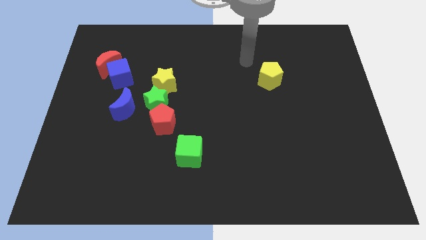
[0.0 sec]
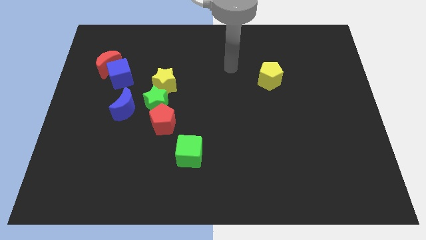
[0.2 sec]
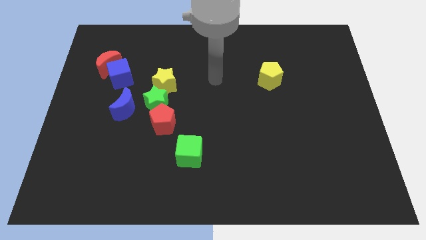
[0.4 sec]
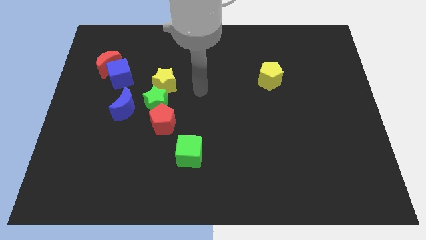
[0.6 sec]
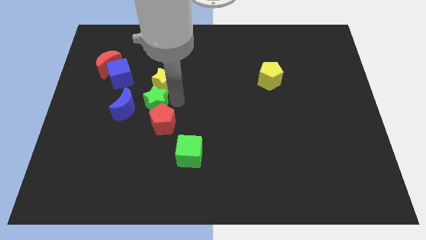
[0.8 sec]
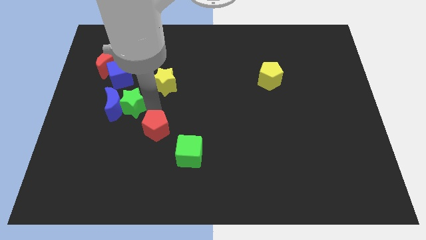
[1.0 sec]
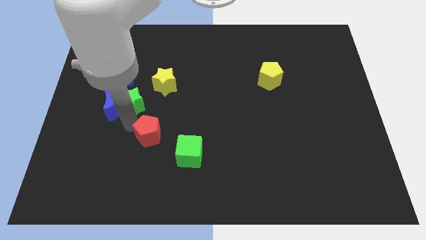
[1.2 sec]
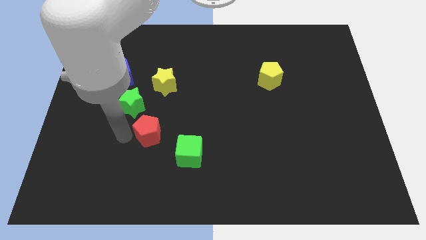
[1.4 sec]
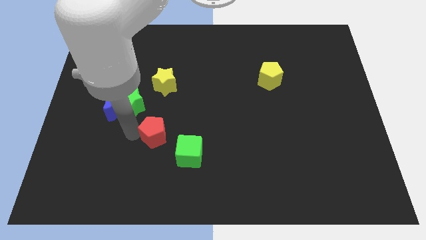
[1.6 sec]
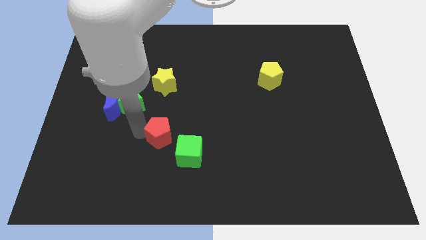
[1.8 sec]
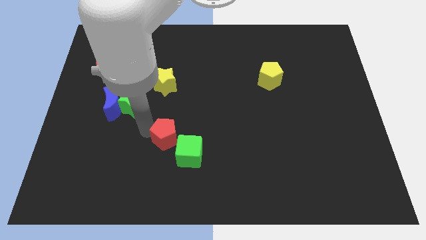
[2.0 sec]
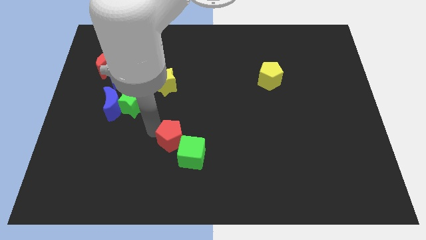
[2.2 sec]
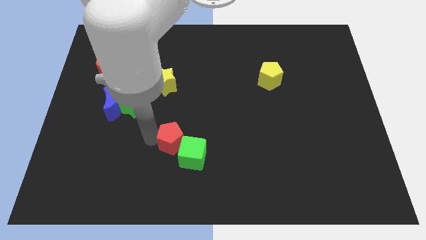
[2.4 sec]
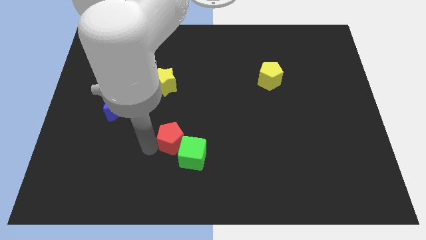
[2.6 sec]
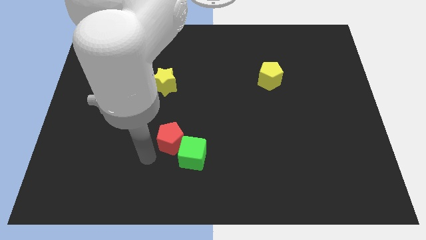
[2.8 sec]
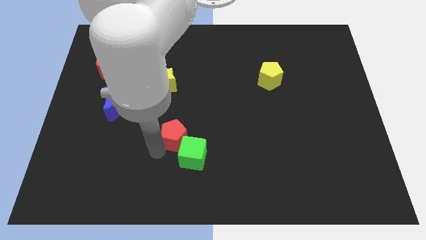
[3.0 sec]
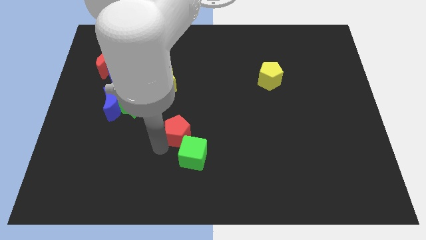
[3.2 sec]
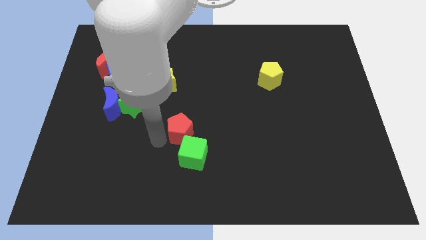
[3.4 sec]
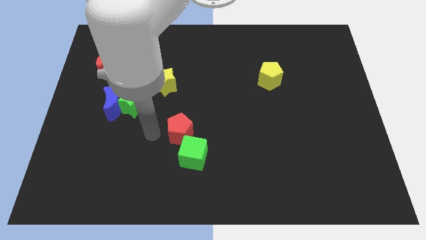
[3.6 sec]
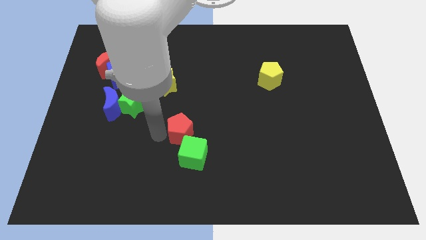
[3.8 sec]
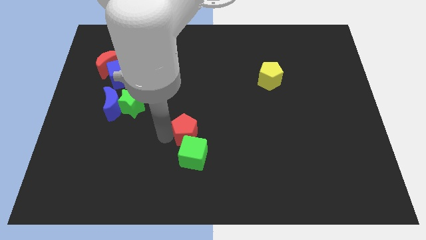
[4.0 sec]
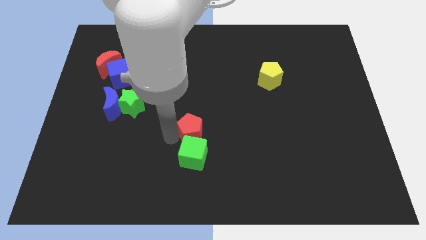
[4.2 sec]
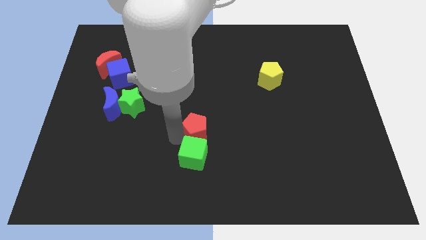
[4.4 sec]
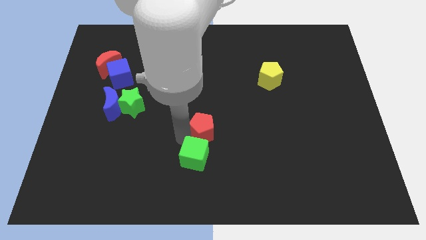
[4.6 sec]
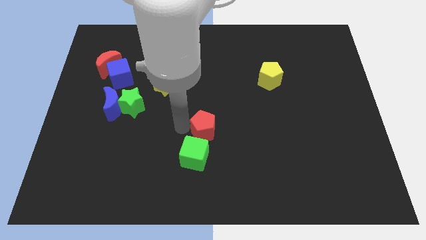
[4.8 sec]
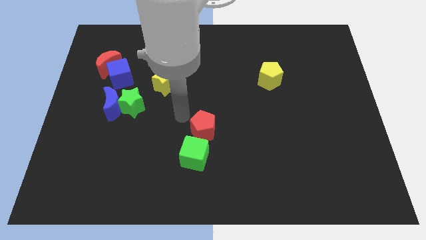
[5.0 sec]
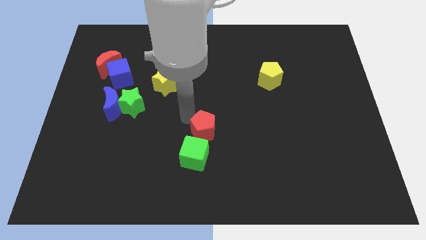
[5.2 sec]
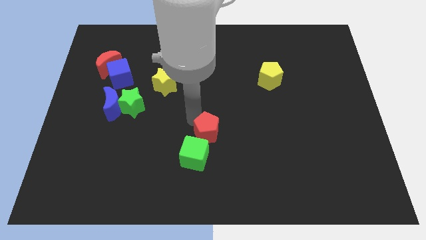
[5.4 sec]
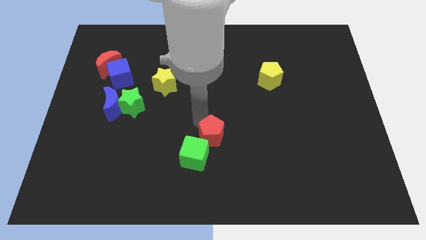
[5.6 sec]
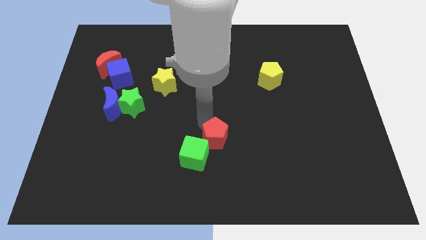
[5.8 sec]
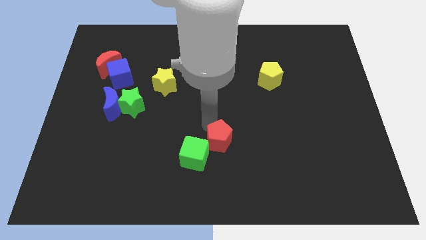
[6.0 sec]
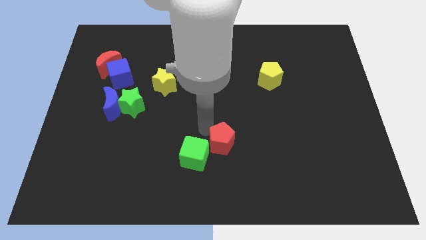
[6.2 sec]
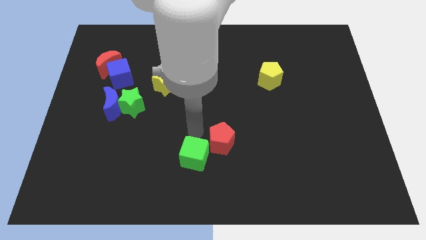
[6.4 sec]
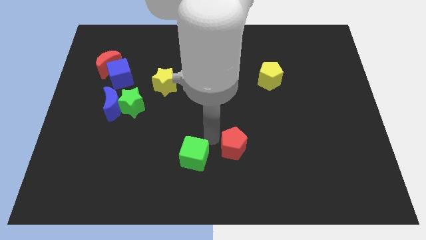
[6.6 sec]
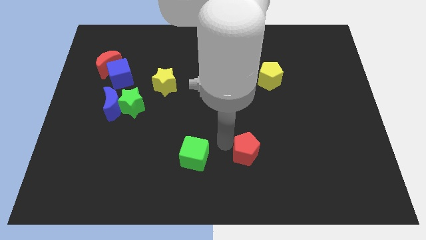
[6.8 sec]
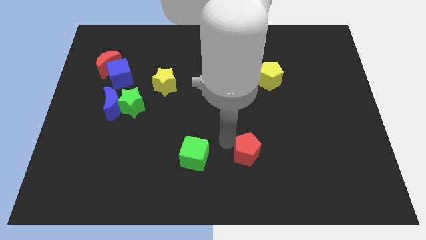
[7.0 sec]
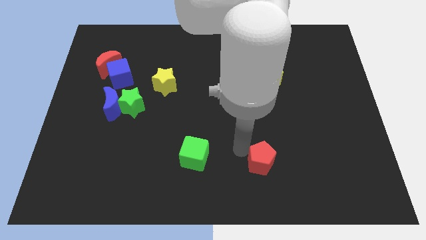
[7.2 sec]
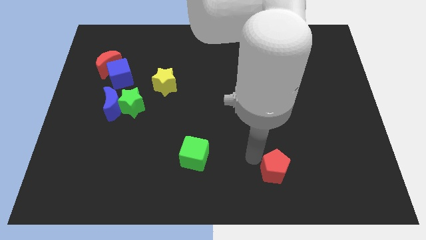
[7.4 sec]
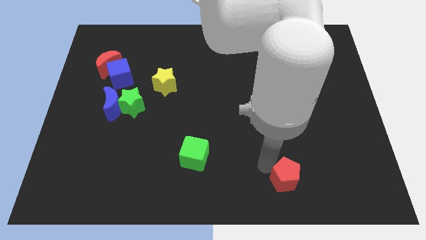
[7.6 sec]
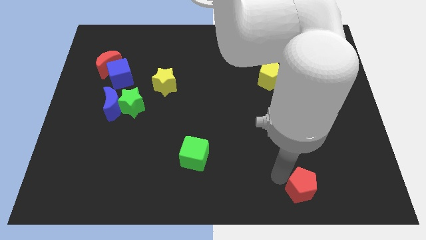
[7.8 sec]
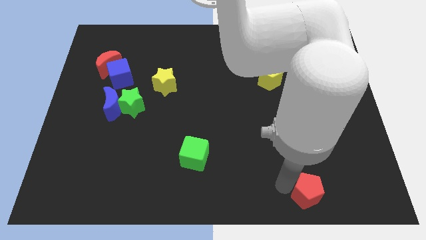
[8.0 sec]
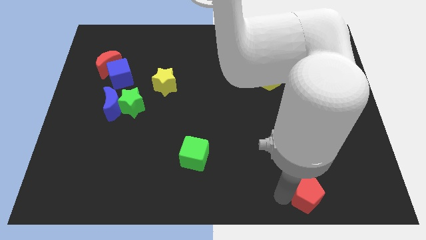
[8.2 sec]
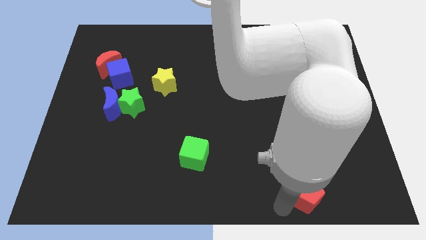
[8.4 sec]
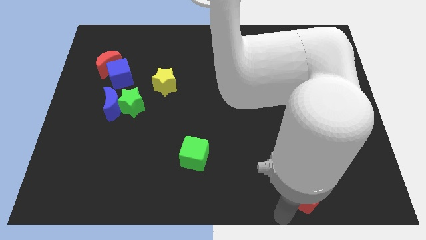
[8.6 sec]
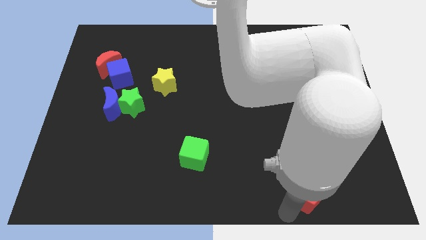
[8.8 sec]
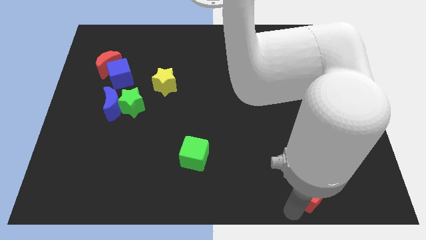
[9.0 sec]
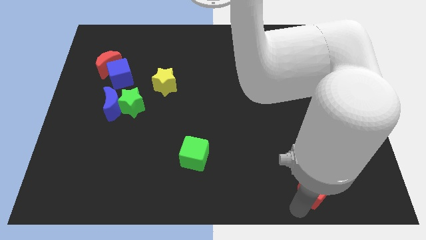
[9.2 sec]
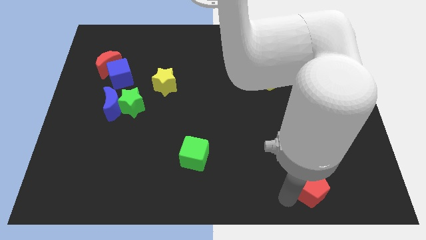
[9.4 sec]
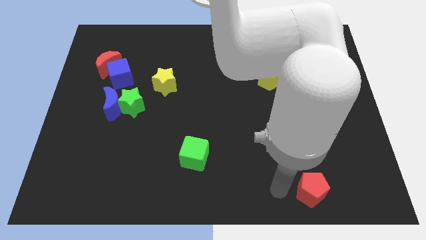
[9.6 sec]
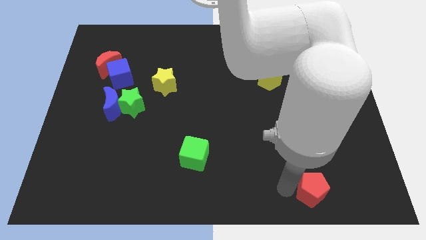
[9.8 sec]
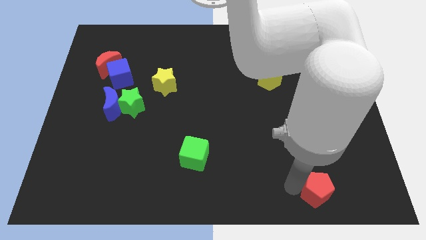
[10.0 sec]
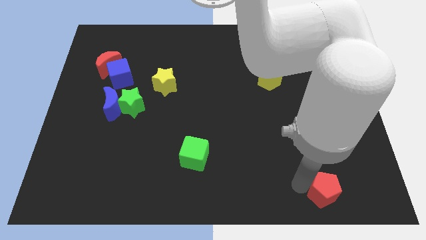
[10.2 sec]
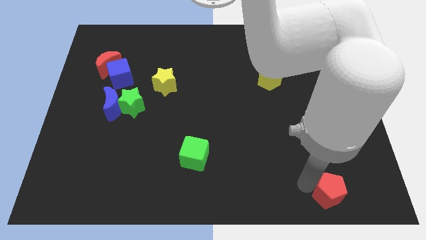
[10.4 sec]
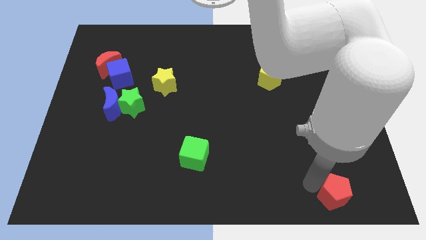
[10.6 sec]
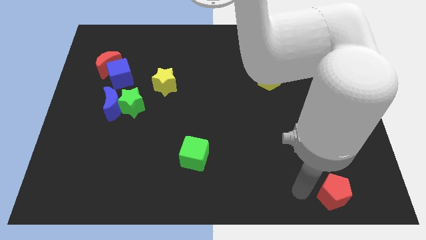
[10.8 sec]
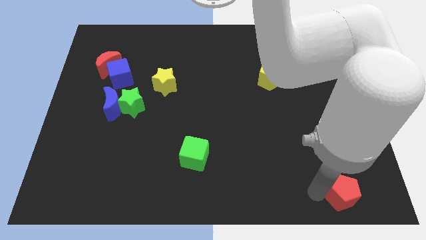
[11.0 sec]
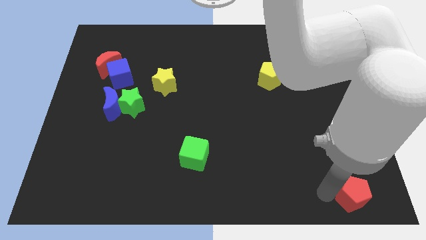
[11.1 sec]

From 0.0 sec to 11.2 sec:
push the red pentagon to the bottom right

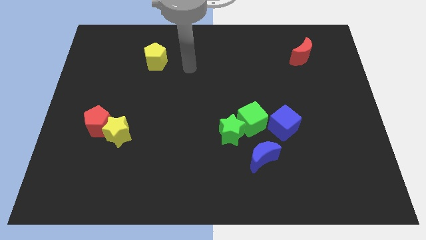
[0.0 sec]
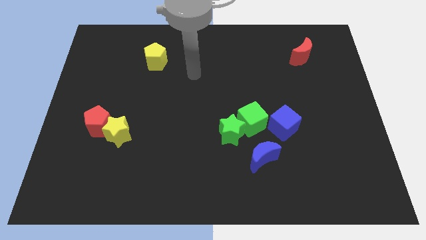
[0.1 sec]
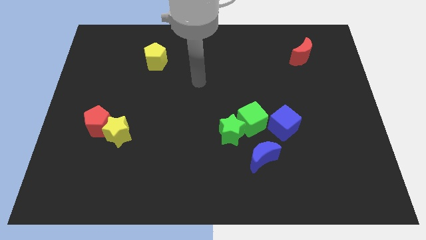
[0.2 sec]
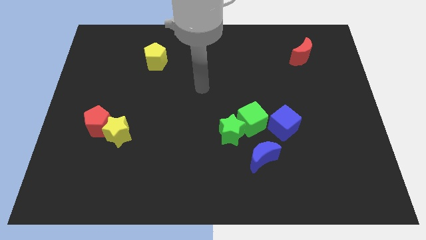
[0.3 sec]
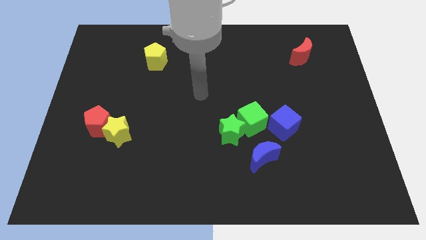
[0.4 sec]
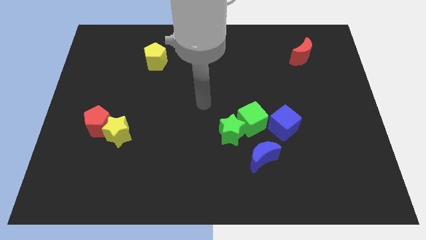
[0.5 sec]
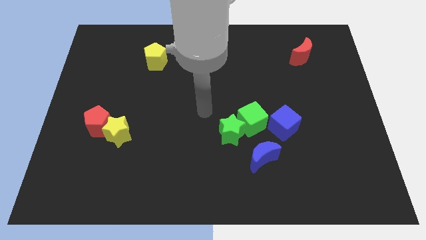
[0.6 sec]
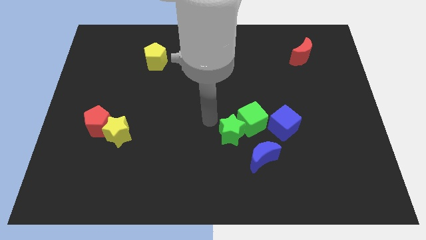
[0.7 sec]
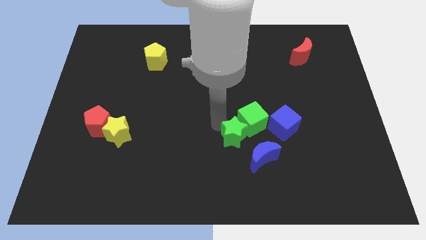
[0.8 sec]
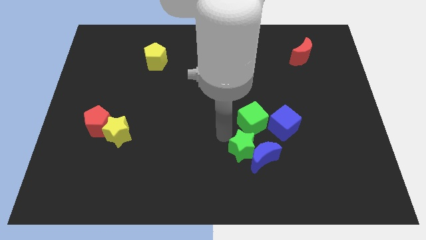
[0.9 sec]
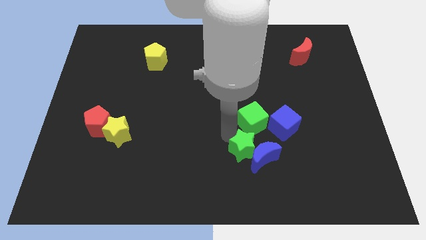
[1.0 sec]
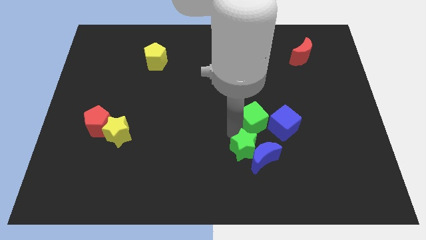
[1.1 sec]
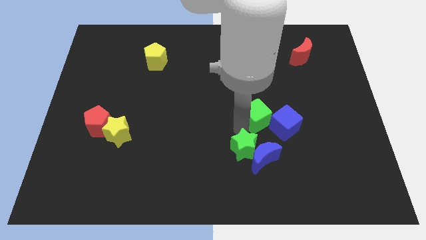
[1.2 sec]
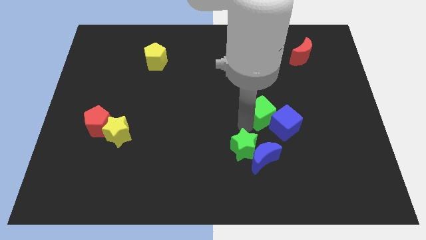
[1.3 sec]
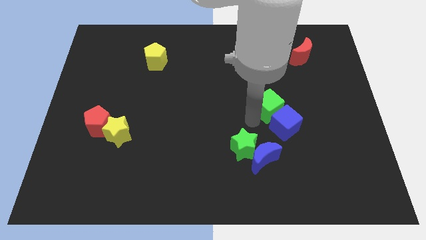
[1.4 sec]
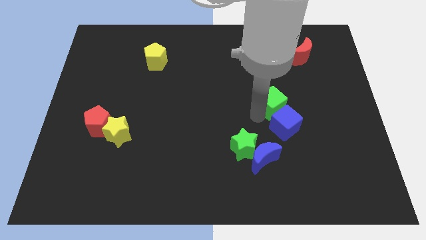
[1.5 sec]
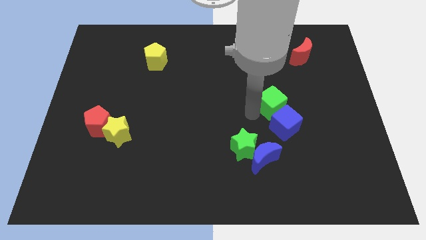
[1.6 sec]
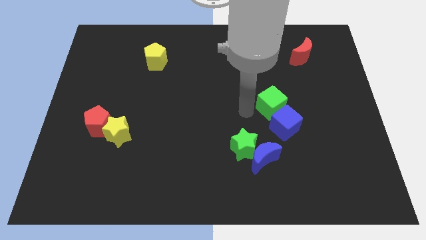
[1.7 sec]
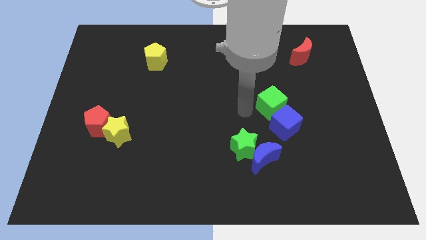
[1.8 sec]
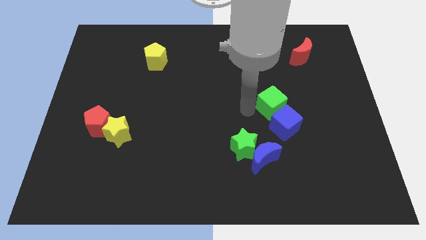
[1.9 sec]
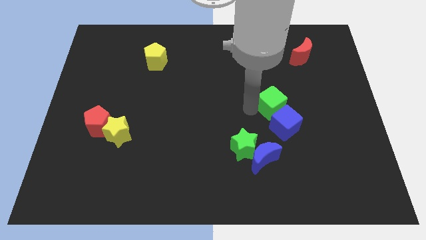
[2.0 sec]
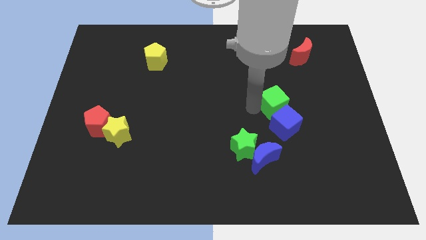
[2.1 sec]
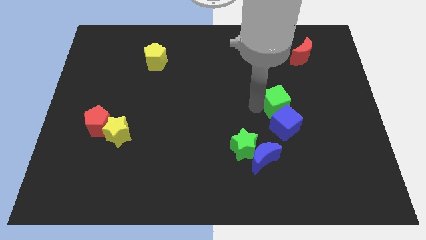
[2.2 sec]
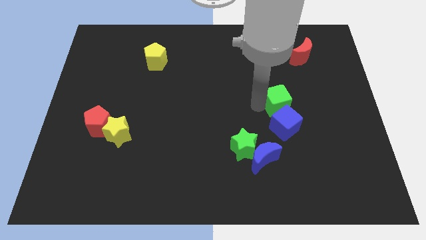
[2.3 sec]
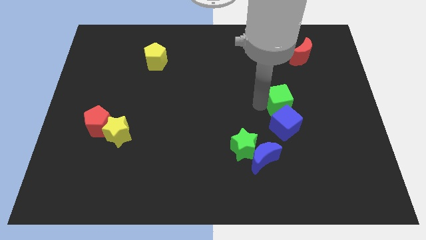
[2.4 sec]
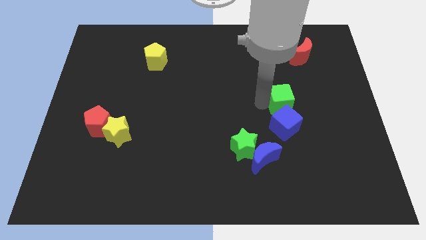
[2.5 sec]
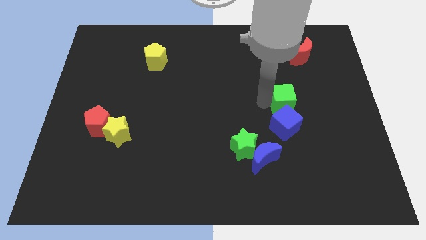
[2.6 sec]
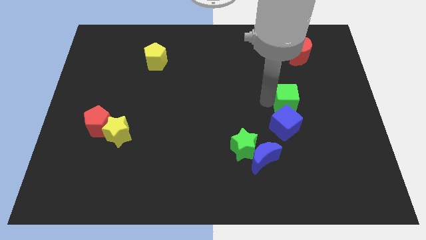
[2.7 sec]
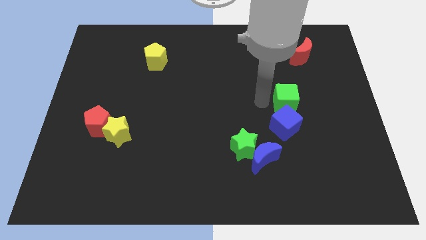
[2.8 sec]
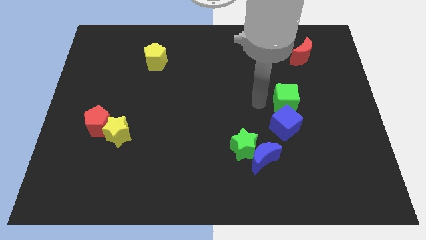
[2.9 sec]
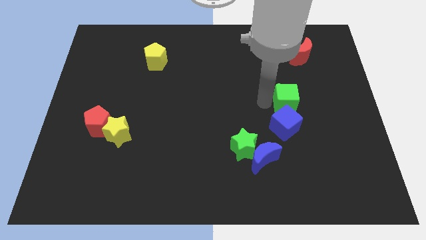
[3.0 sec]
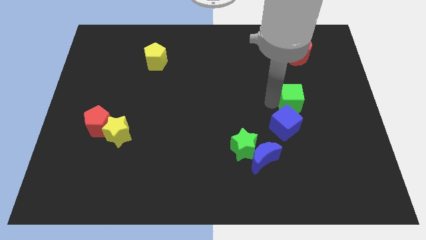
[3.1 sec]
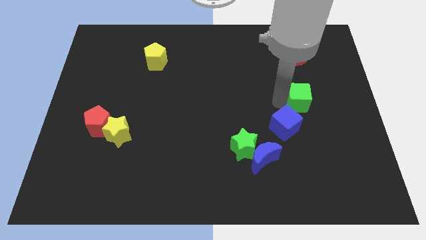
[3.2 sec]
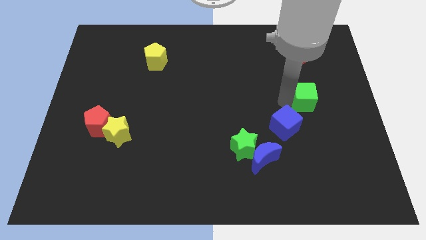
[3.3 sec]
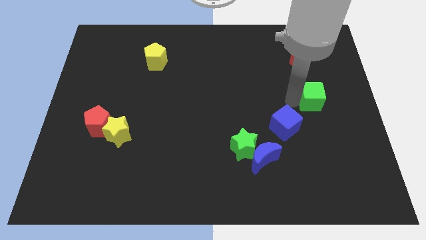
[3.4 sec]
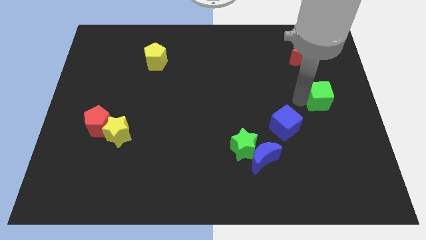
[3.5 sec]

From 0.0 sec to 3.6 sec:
slide the green cube to the center right
